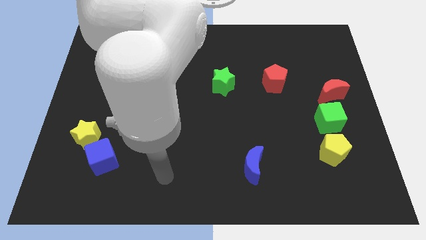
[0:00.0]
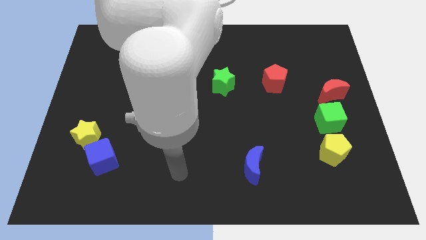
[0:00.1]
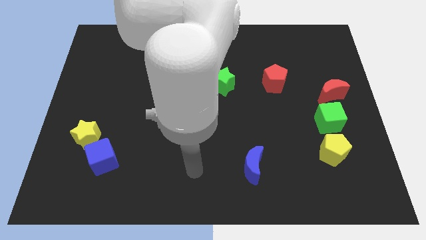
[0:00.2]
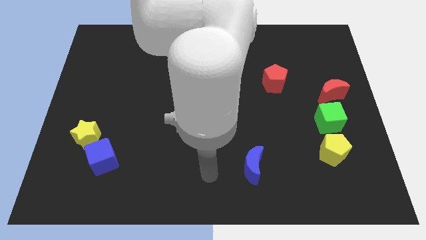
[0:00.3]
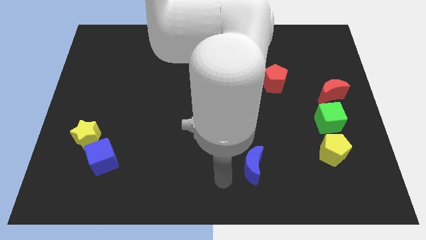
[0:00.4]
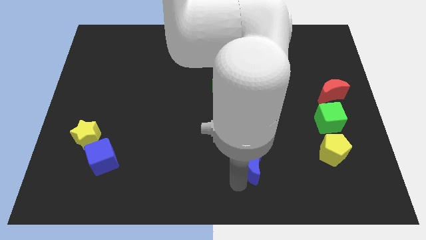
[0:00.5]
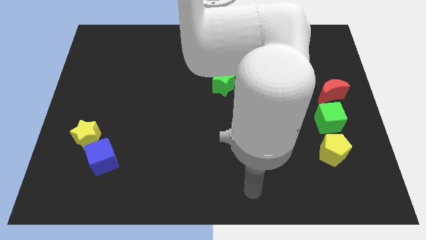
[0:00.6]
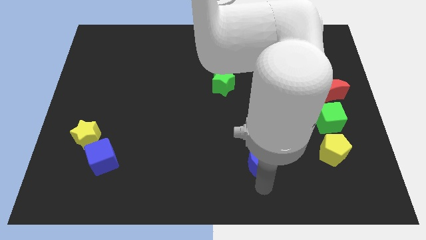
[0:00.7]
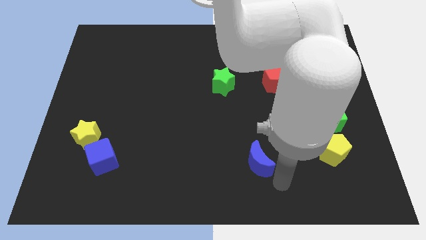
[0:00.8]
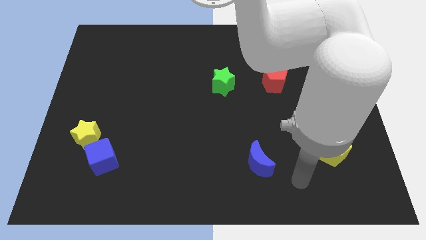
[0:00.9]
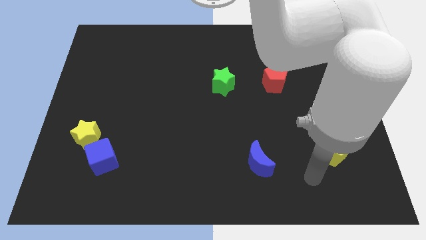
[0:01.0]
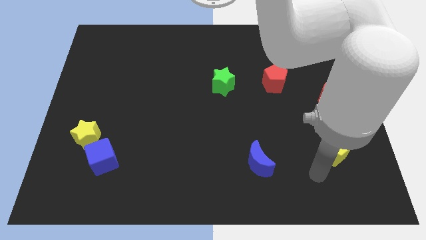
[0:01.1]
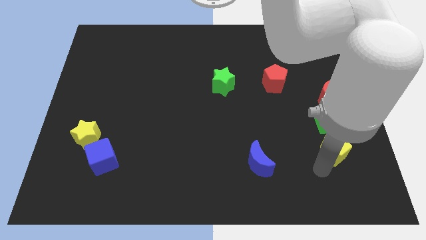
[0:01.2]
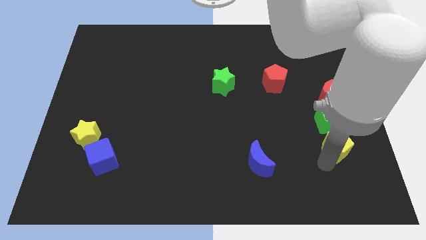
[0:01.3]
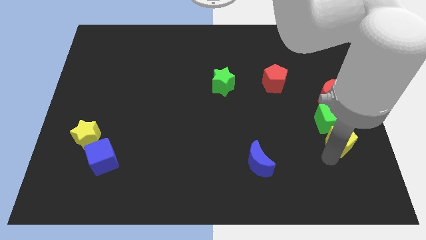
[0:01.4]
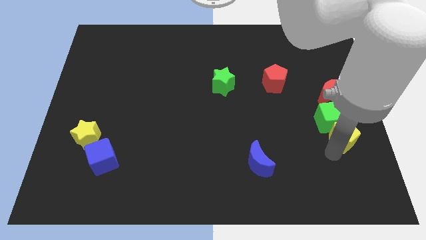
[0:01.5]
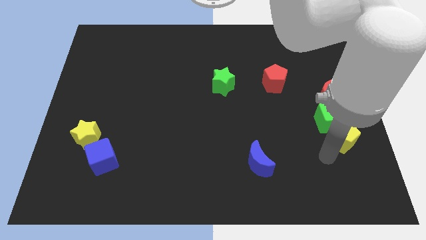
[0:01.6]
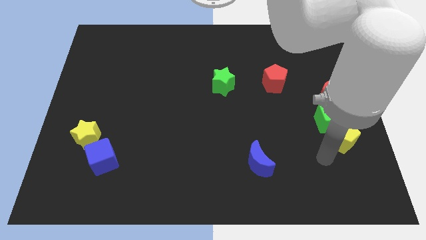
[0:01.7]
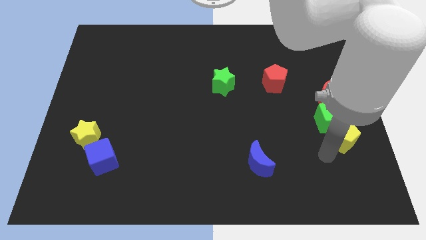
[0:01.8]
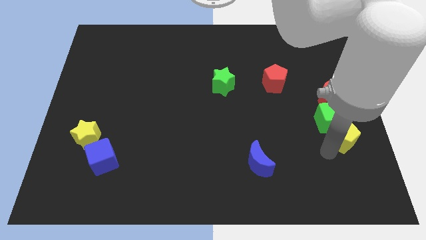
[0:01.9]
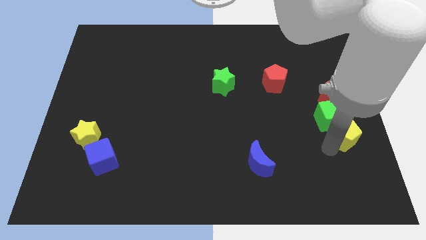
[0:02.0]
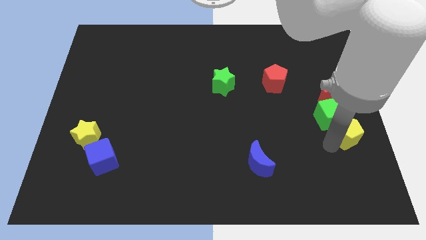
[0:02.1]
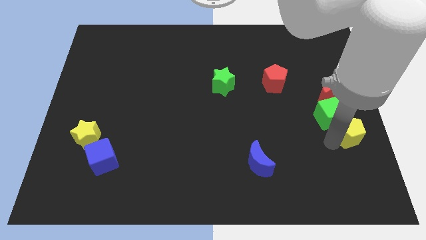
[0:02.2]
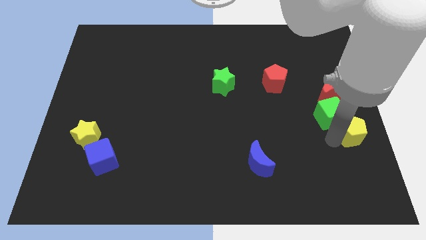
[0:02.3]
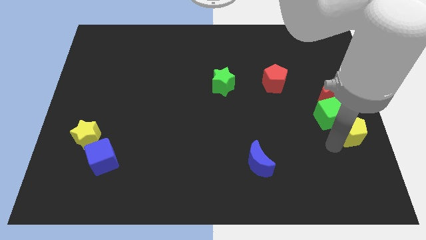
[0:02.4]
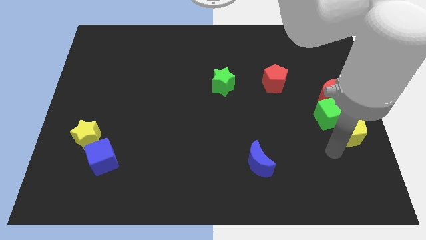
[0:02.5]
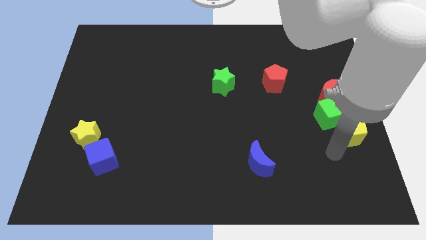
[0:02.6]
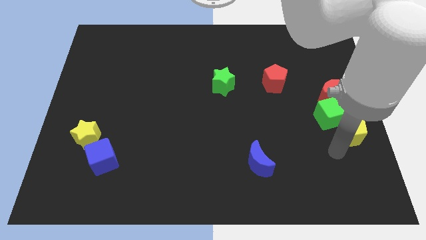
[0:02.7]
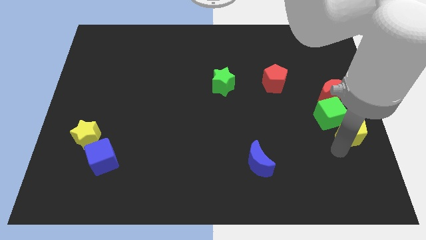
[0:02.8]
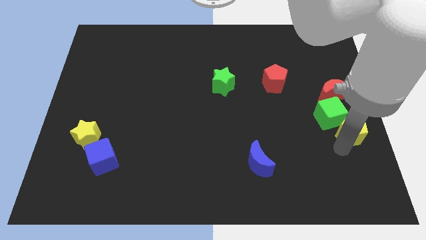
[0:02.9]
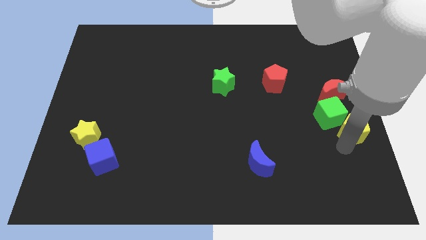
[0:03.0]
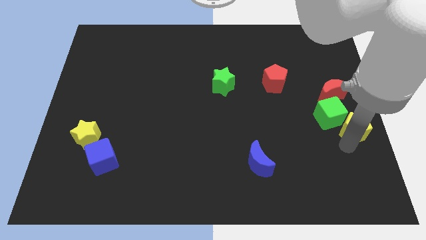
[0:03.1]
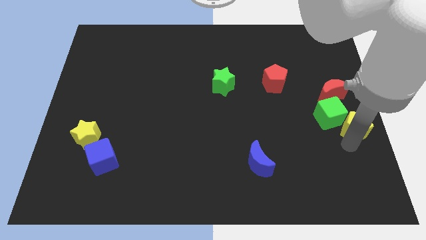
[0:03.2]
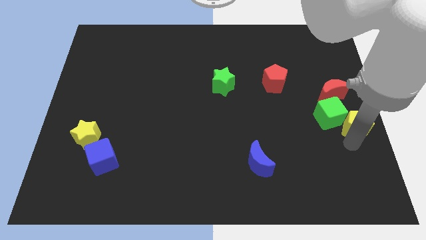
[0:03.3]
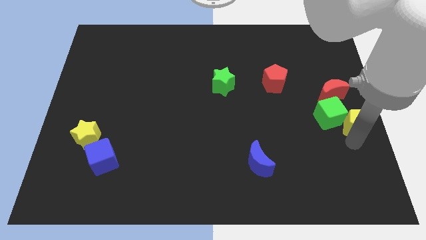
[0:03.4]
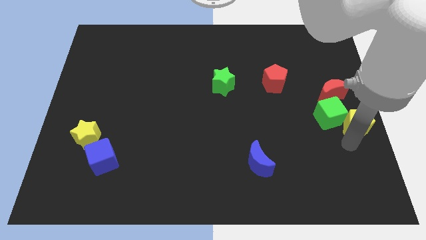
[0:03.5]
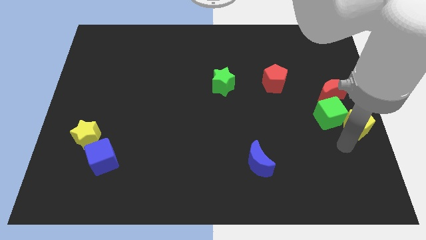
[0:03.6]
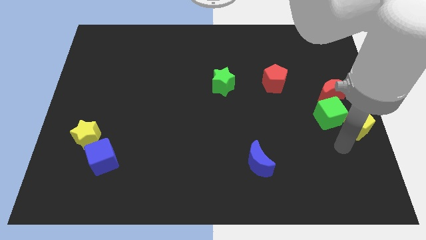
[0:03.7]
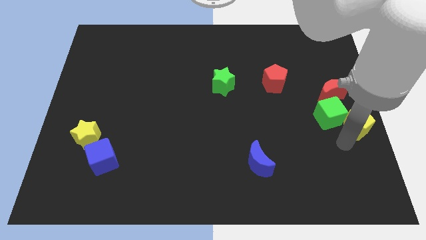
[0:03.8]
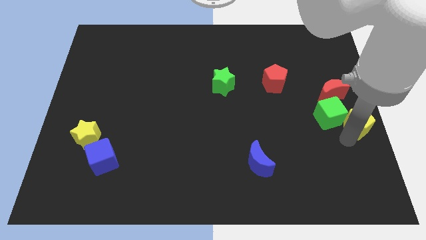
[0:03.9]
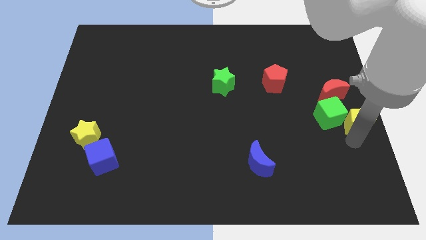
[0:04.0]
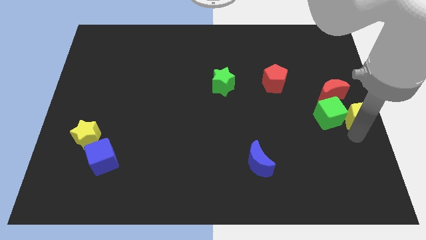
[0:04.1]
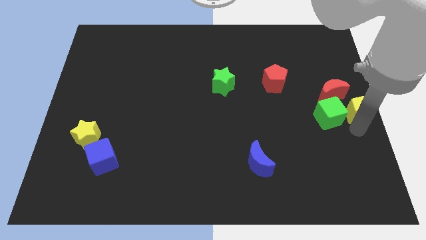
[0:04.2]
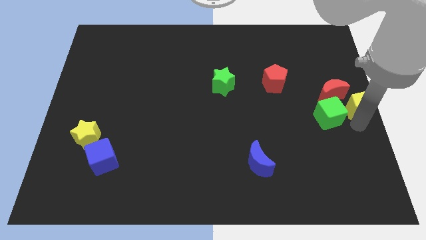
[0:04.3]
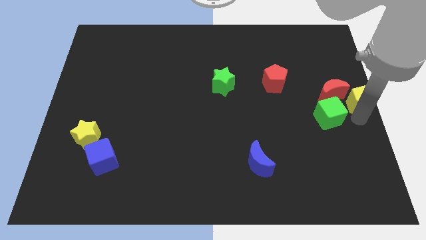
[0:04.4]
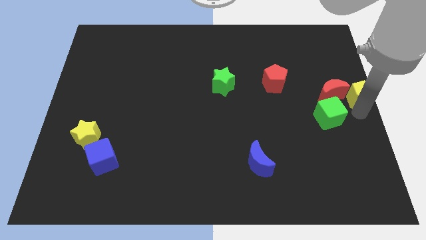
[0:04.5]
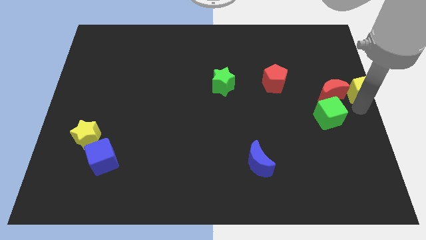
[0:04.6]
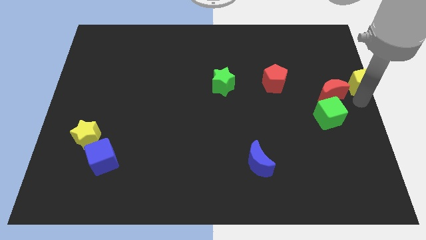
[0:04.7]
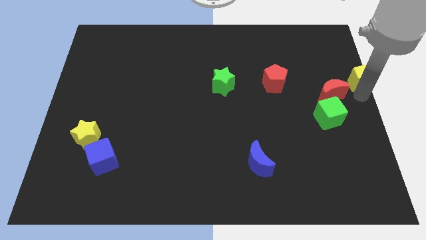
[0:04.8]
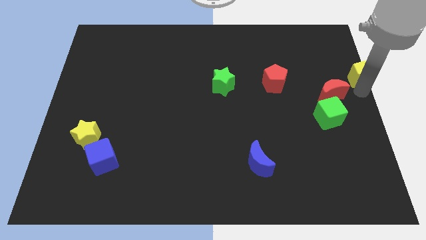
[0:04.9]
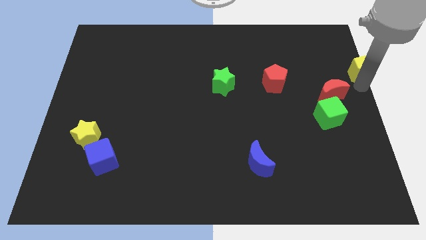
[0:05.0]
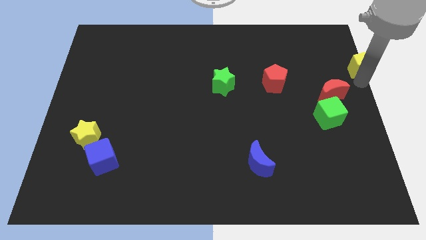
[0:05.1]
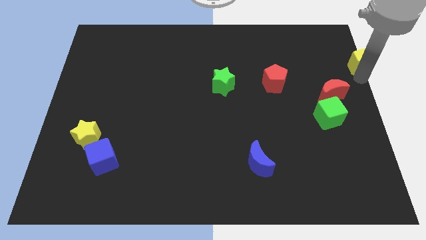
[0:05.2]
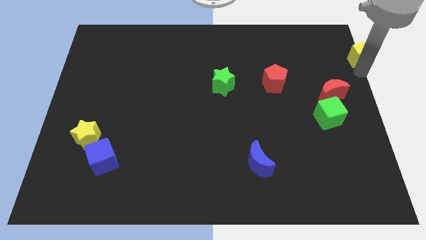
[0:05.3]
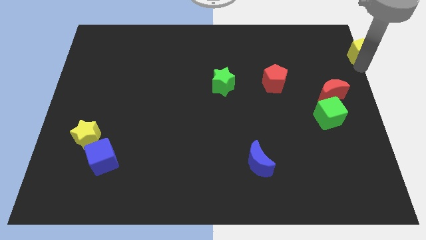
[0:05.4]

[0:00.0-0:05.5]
move the yellow pentagon to the upper right corner
